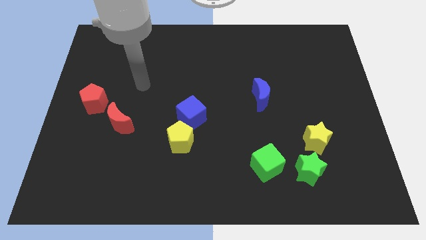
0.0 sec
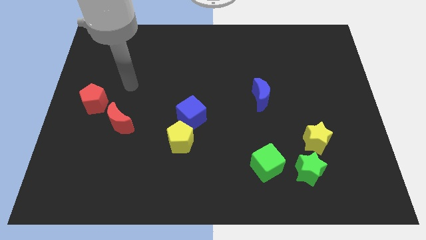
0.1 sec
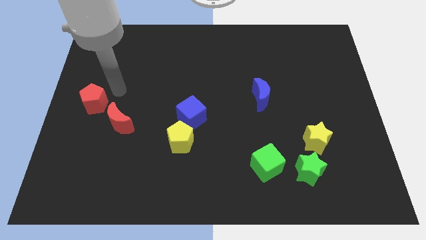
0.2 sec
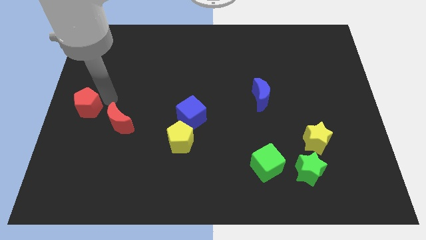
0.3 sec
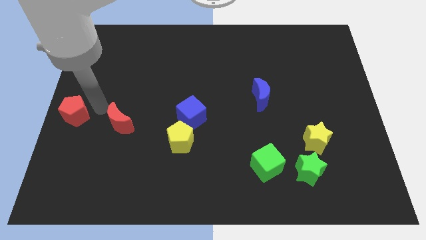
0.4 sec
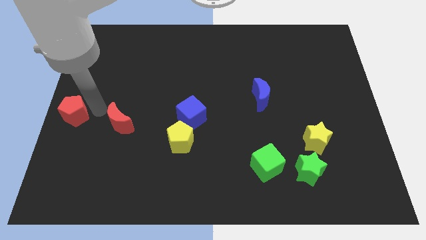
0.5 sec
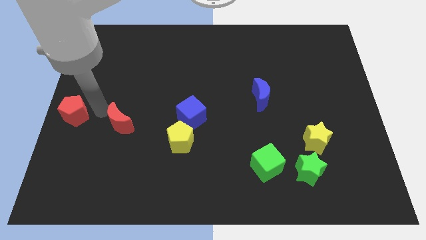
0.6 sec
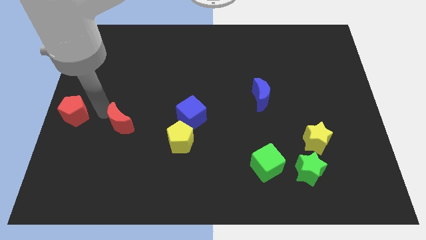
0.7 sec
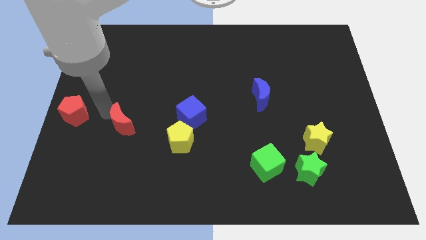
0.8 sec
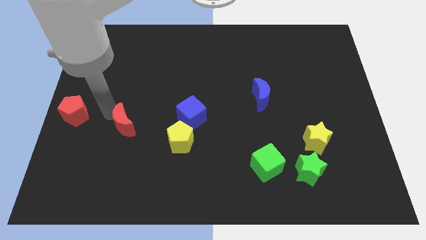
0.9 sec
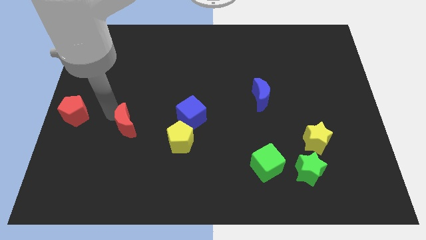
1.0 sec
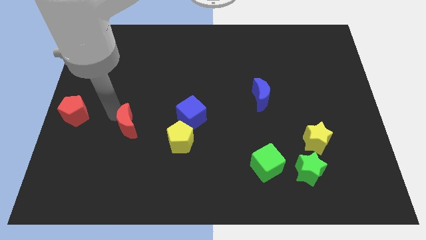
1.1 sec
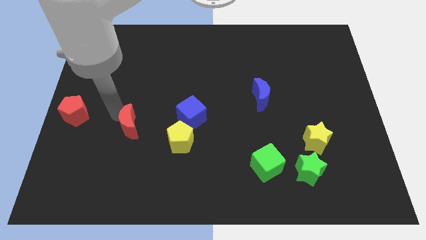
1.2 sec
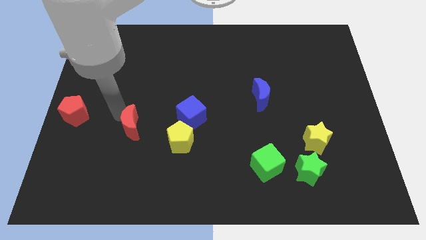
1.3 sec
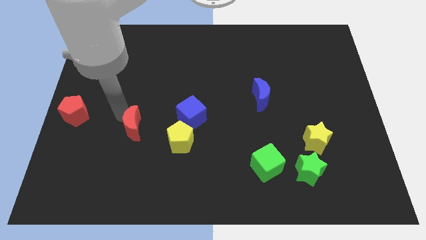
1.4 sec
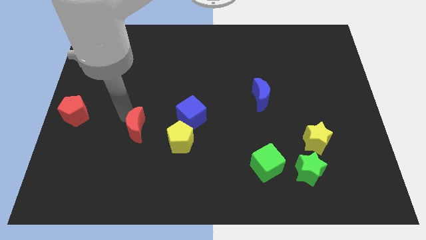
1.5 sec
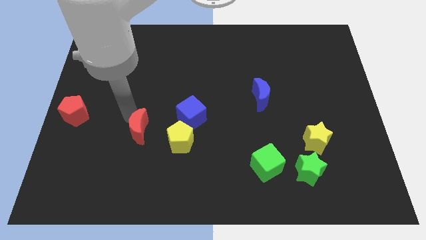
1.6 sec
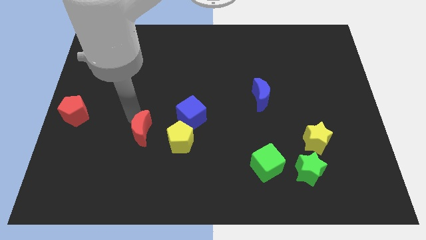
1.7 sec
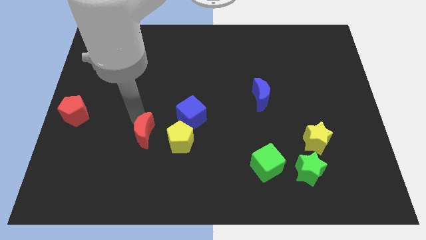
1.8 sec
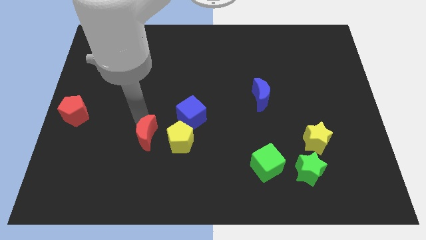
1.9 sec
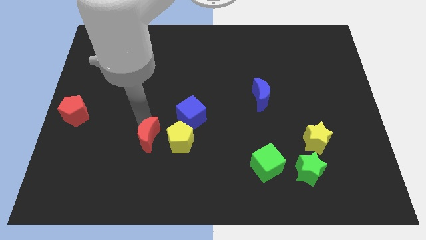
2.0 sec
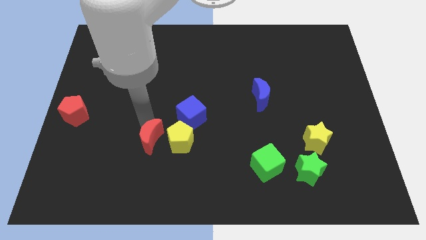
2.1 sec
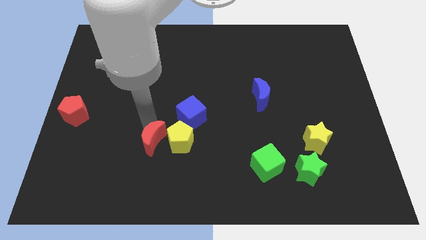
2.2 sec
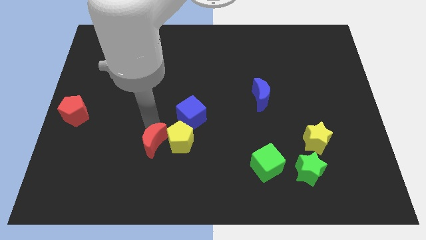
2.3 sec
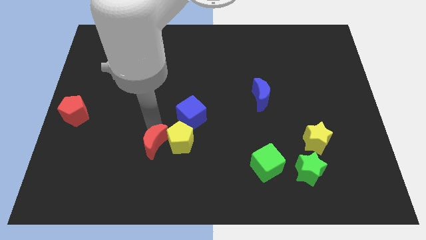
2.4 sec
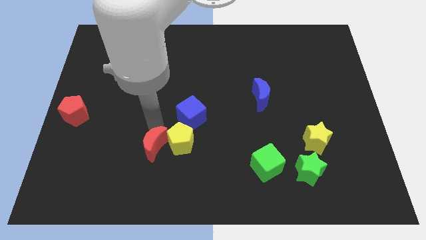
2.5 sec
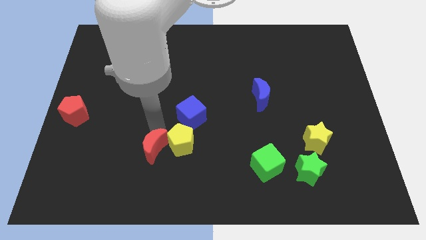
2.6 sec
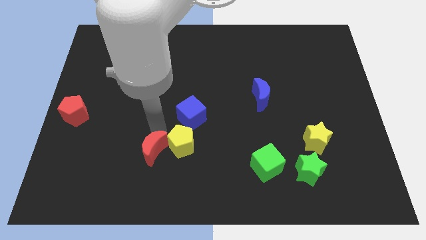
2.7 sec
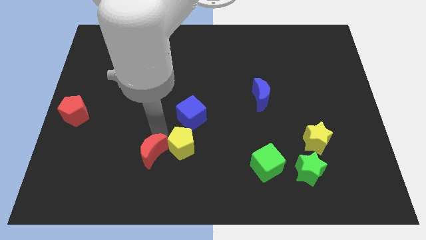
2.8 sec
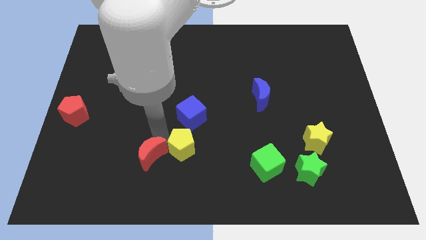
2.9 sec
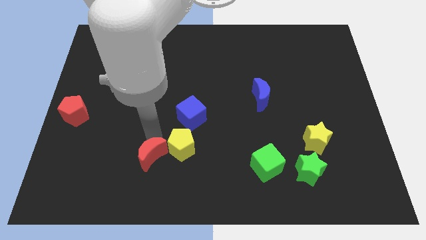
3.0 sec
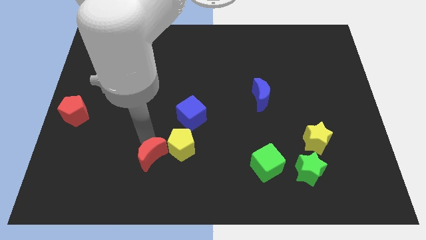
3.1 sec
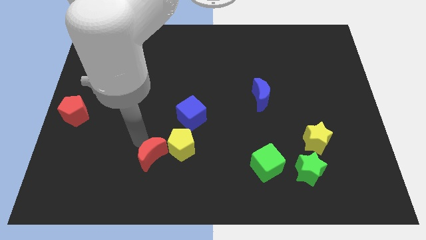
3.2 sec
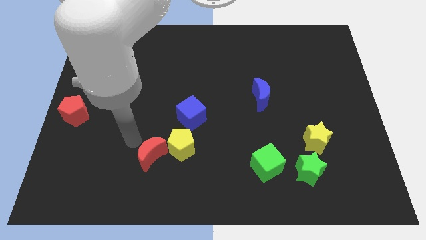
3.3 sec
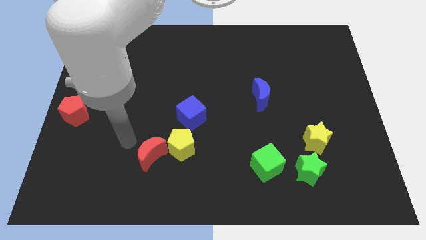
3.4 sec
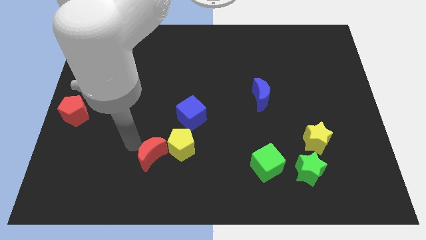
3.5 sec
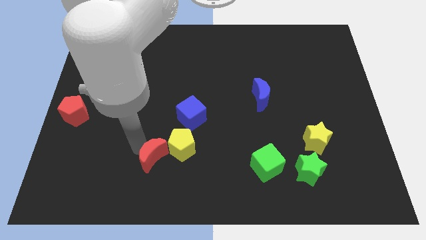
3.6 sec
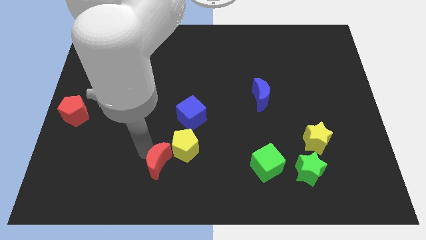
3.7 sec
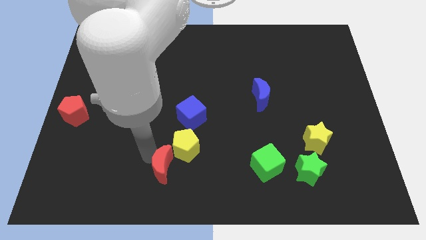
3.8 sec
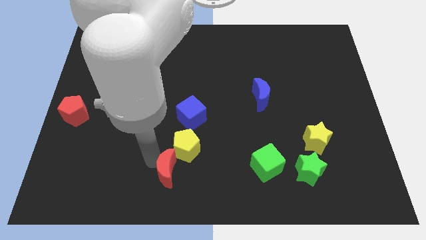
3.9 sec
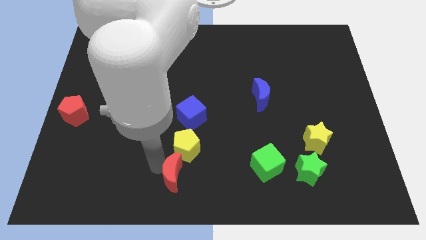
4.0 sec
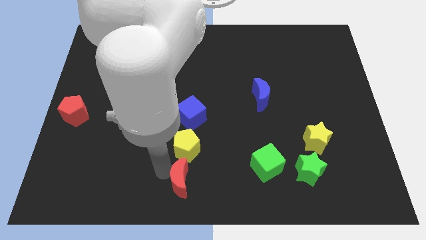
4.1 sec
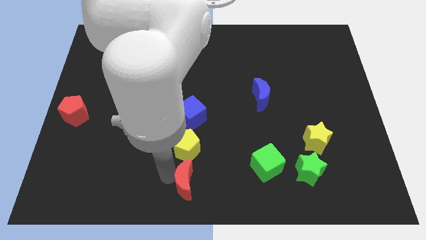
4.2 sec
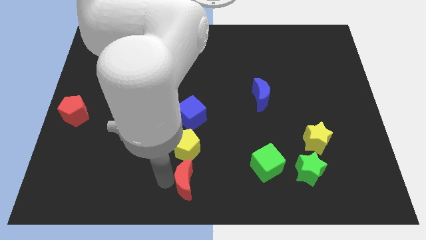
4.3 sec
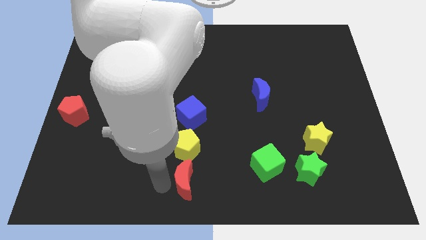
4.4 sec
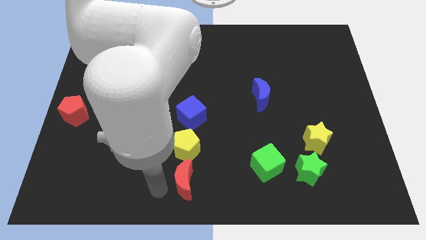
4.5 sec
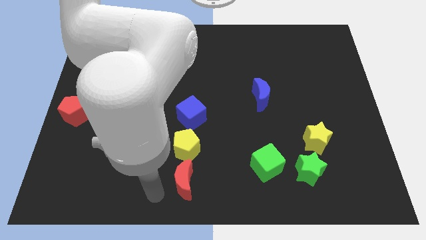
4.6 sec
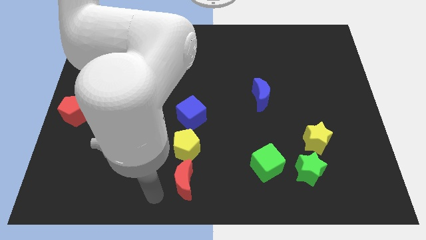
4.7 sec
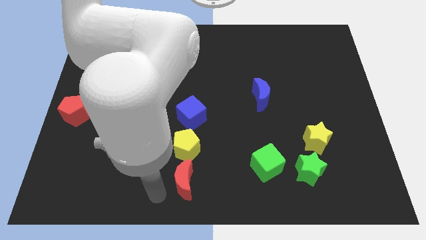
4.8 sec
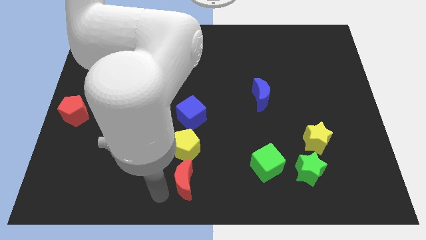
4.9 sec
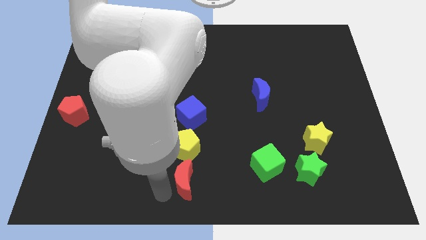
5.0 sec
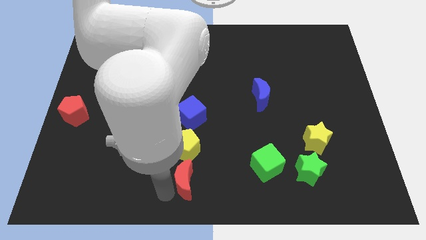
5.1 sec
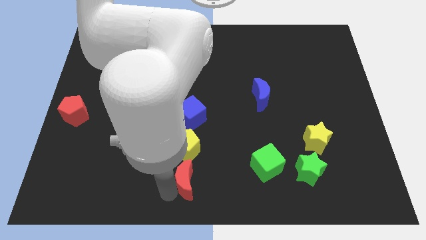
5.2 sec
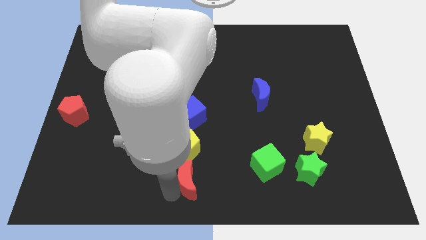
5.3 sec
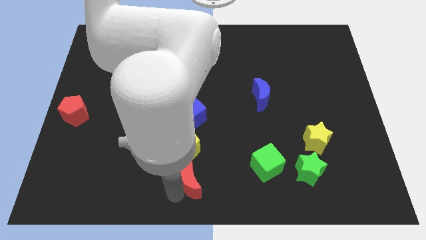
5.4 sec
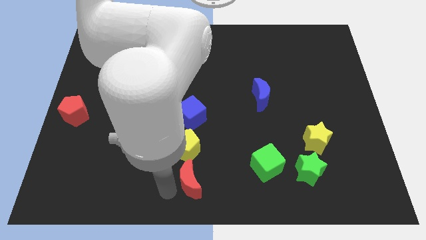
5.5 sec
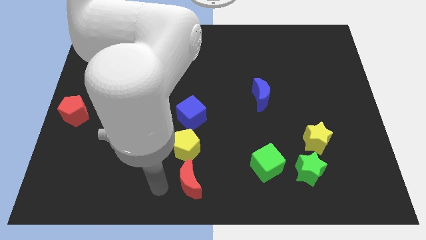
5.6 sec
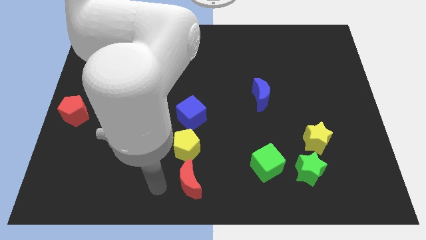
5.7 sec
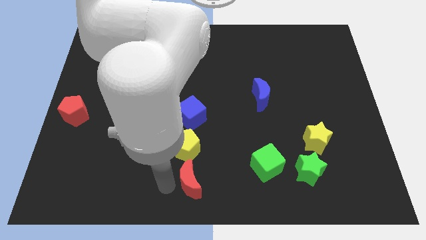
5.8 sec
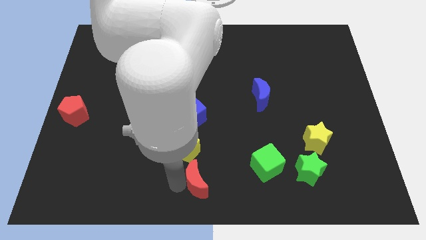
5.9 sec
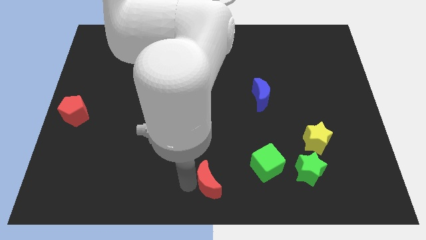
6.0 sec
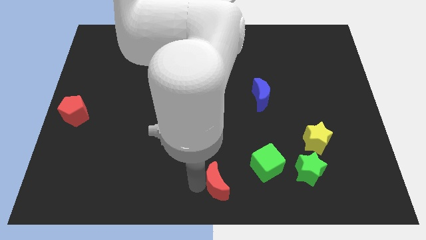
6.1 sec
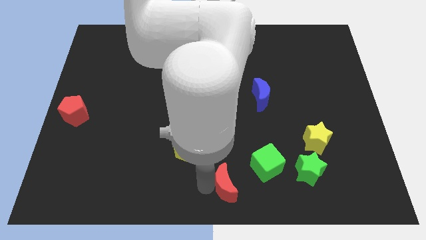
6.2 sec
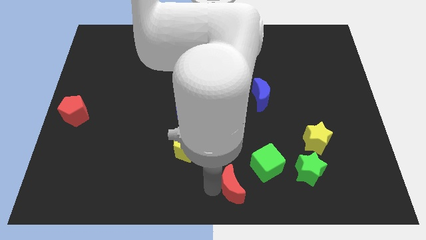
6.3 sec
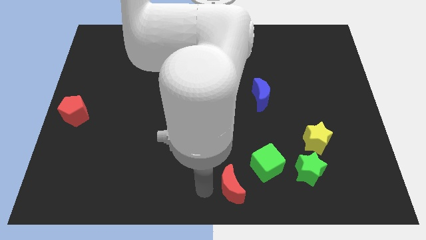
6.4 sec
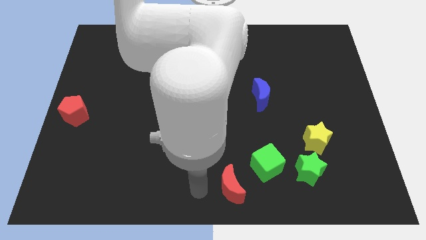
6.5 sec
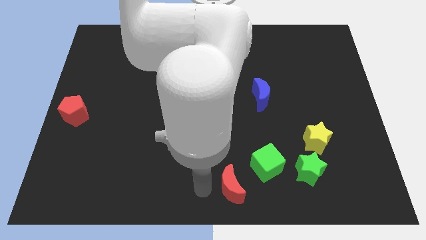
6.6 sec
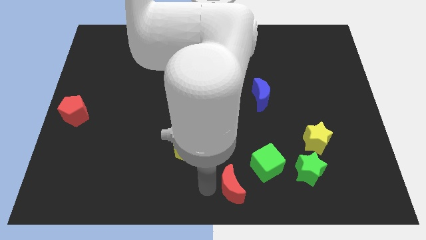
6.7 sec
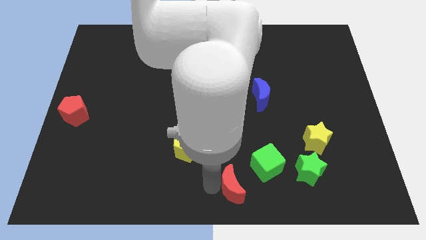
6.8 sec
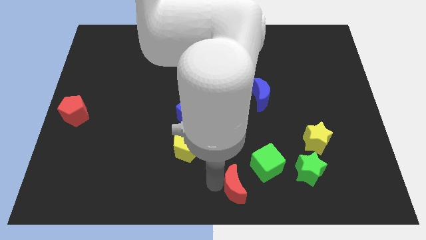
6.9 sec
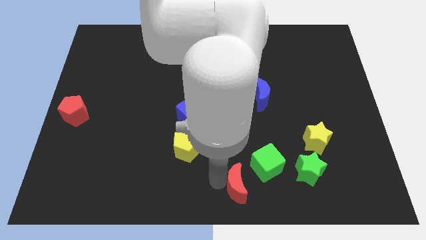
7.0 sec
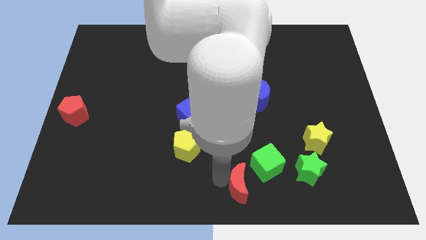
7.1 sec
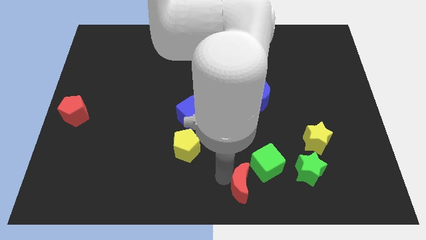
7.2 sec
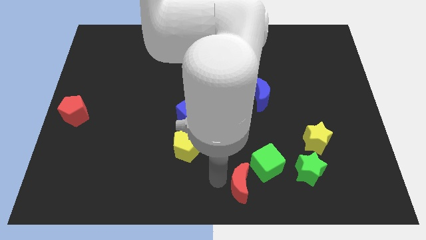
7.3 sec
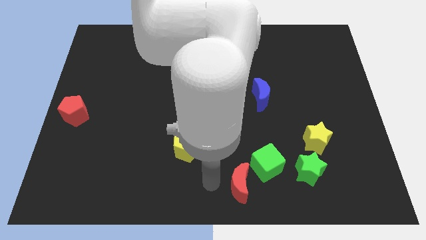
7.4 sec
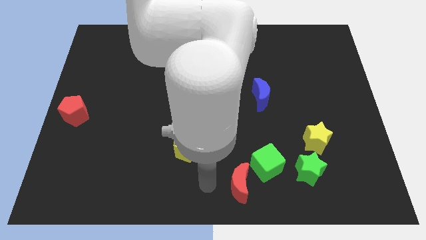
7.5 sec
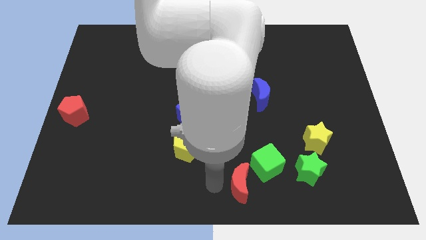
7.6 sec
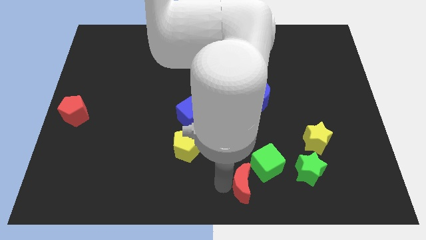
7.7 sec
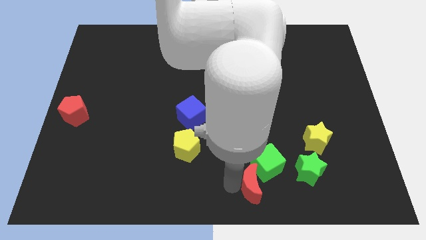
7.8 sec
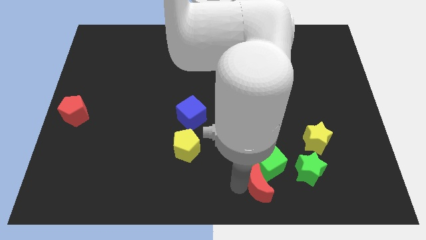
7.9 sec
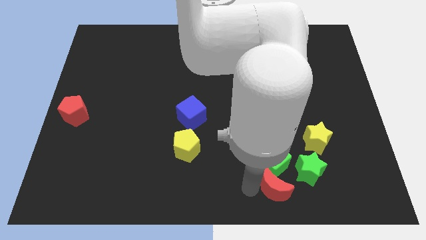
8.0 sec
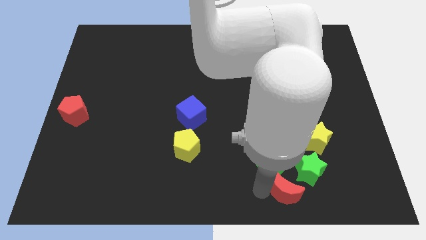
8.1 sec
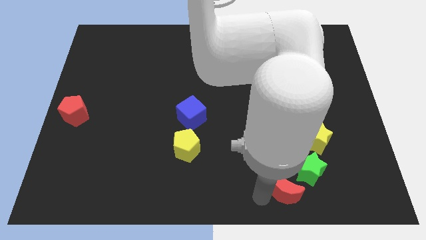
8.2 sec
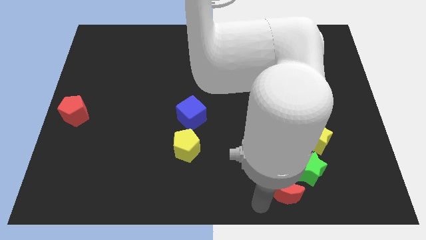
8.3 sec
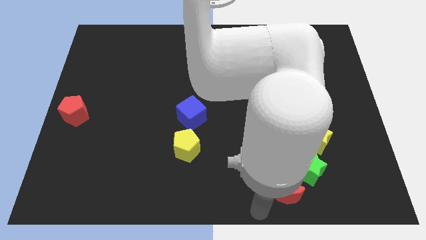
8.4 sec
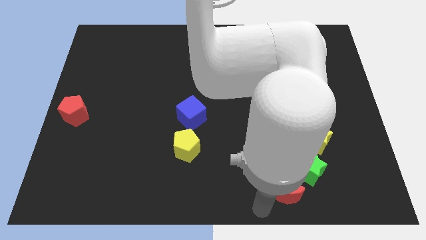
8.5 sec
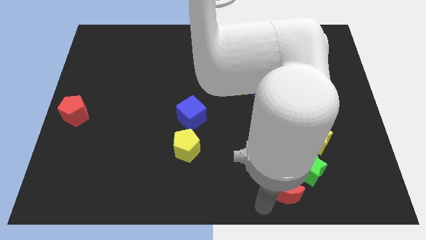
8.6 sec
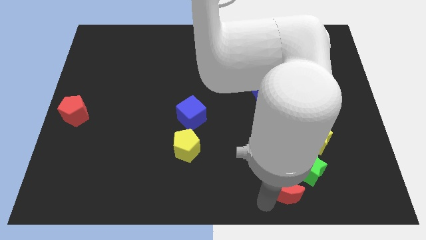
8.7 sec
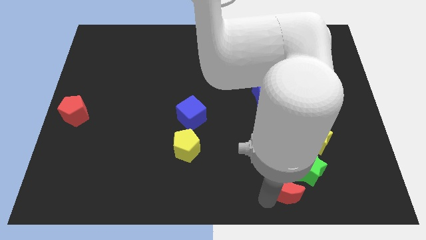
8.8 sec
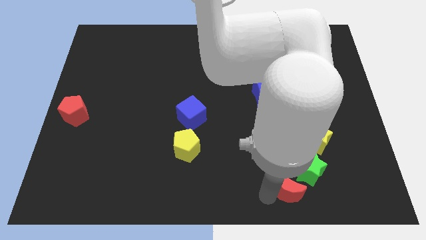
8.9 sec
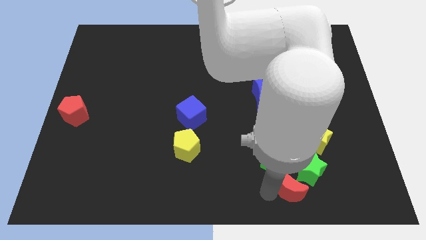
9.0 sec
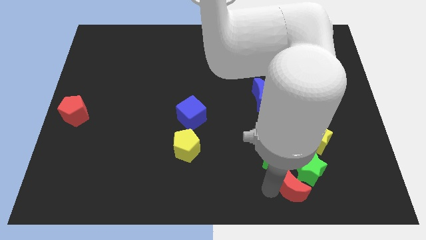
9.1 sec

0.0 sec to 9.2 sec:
put the red moon towards the green star
